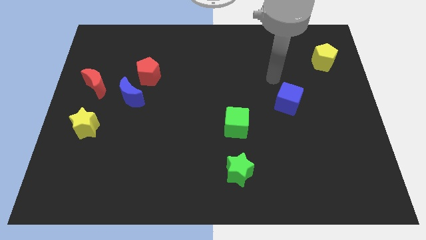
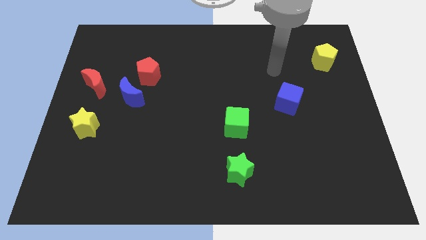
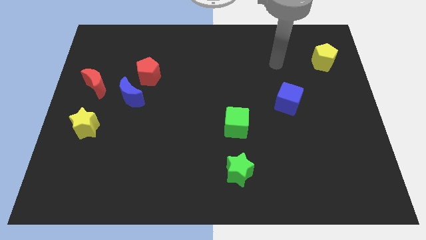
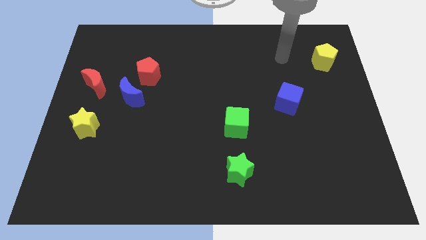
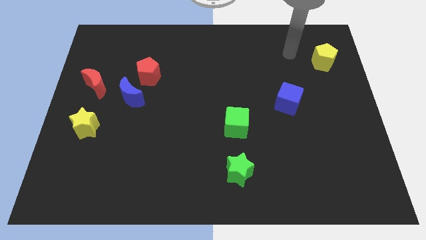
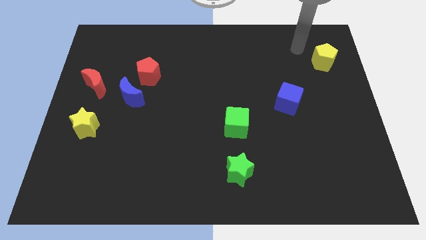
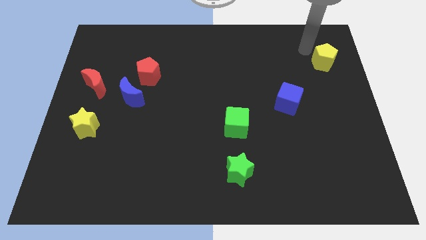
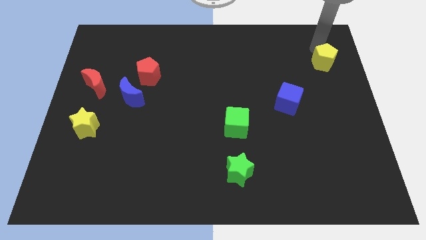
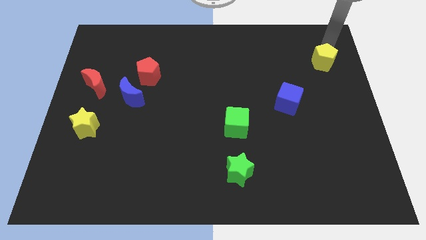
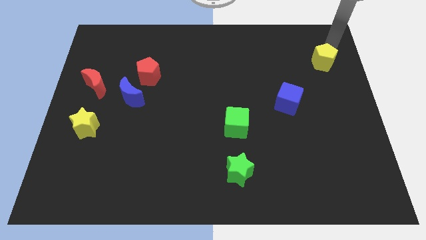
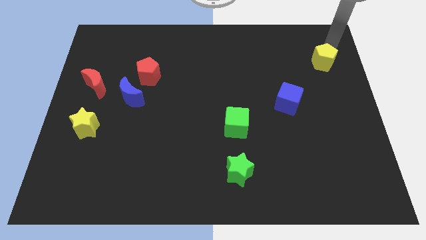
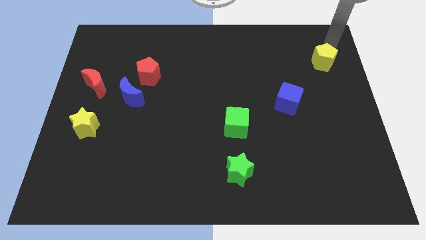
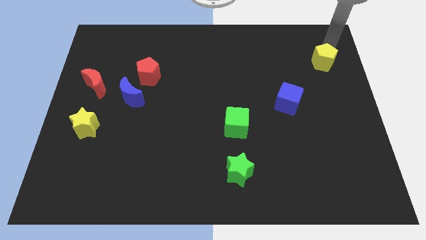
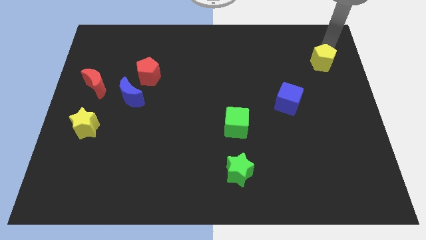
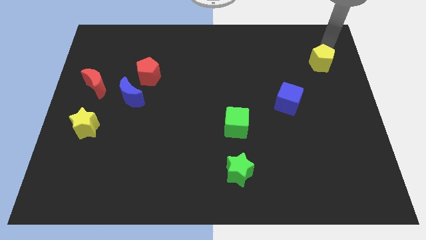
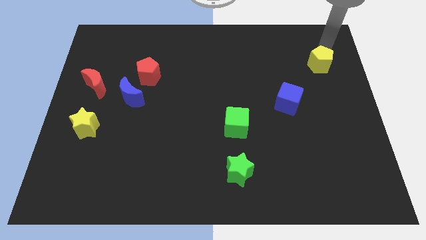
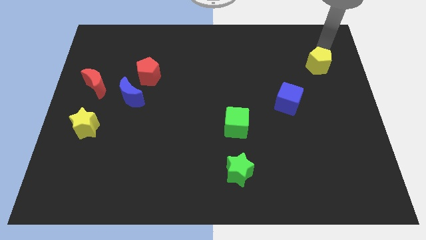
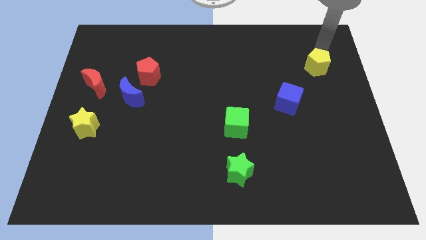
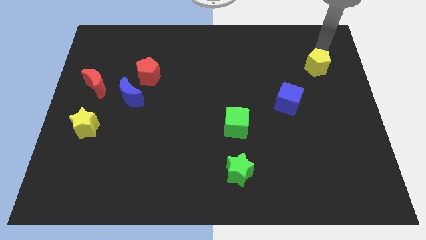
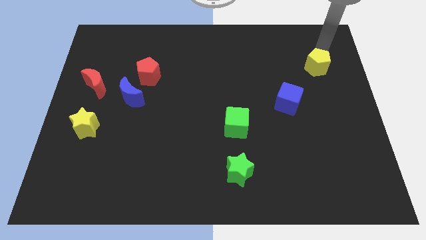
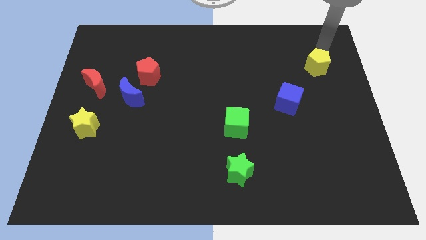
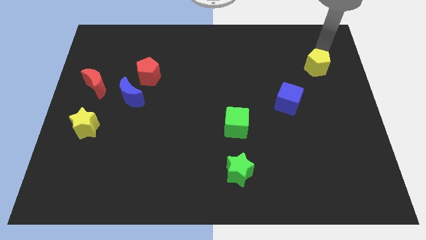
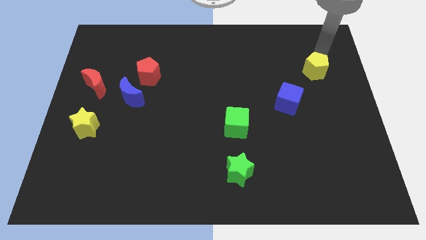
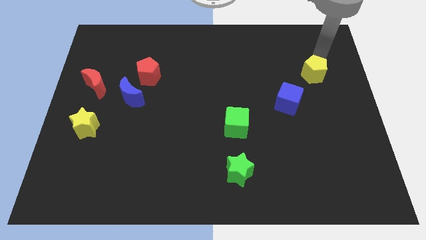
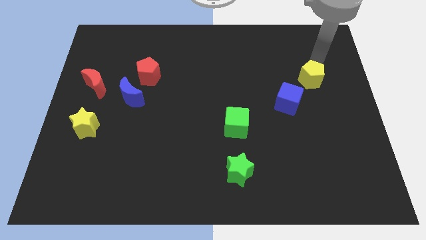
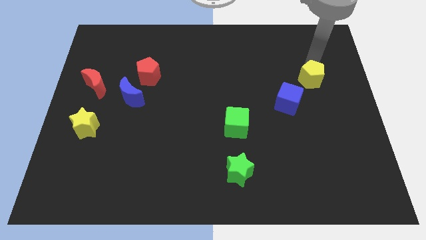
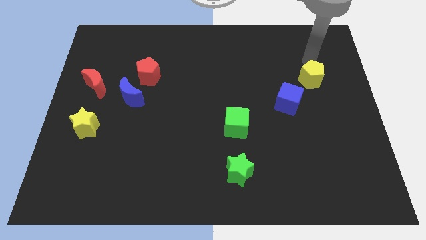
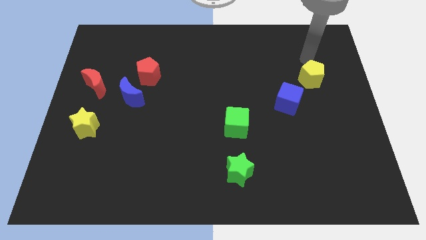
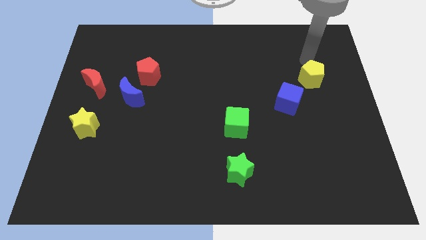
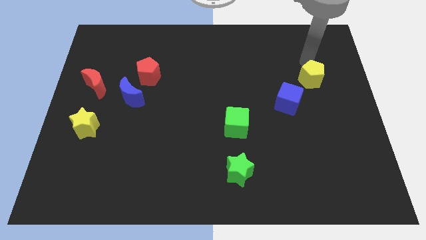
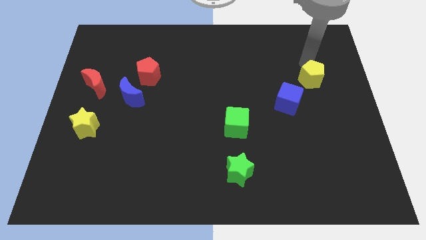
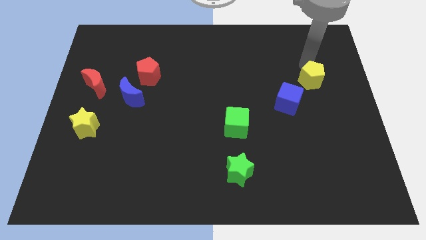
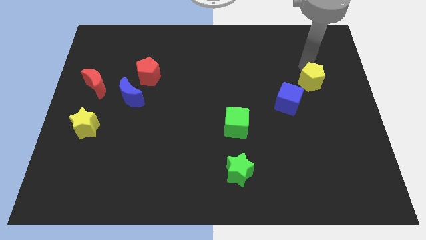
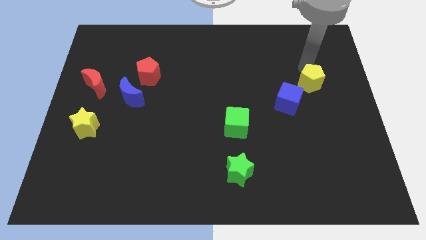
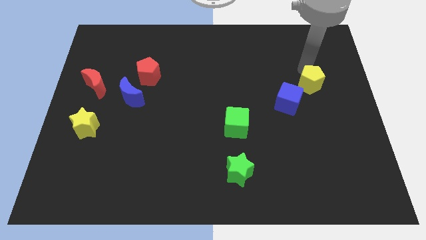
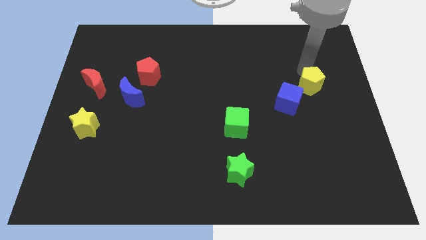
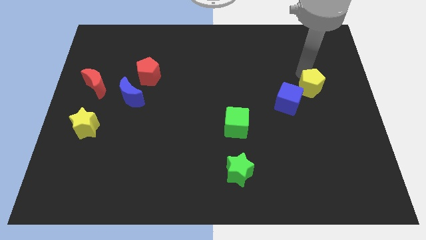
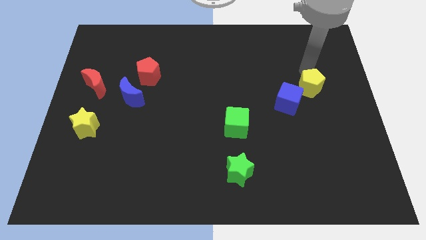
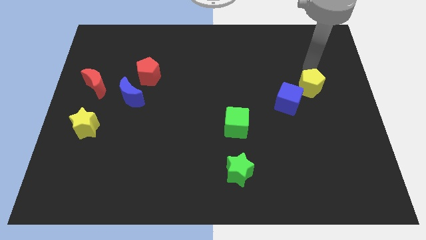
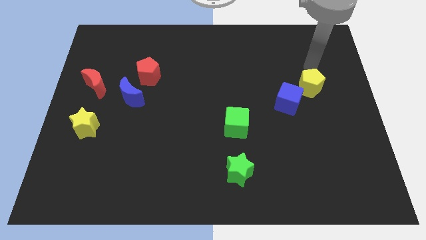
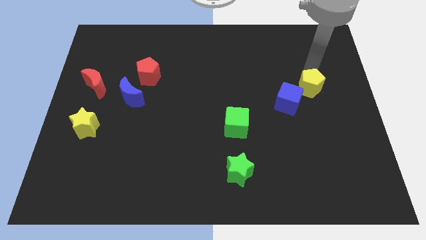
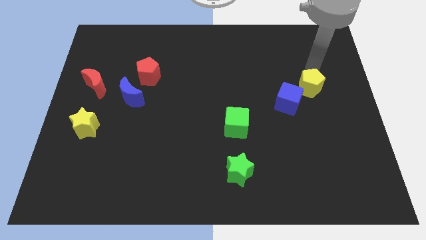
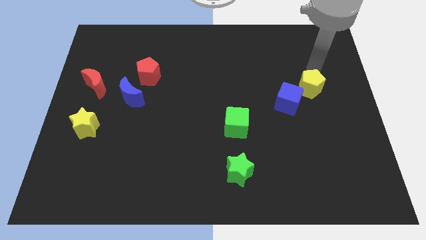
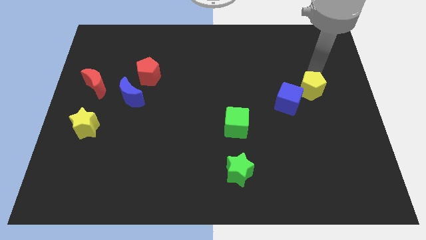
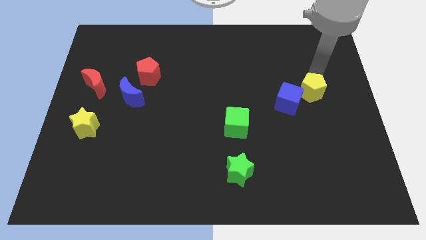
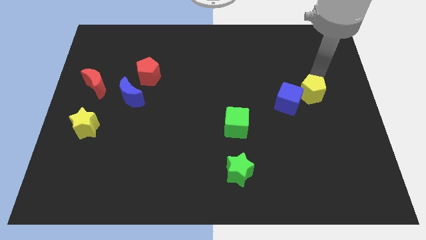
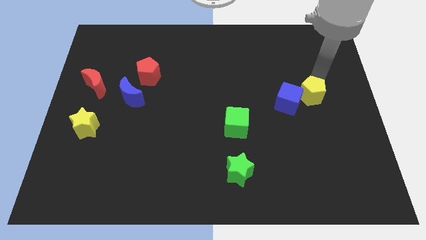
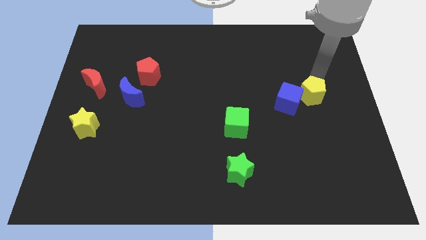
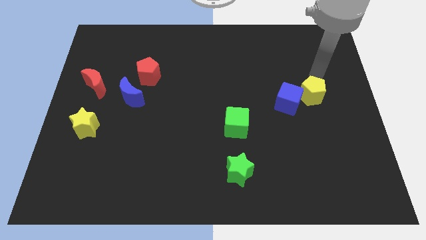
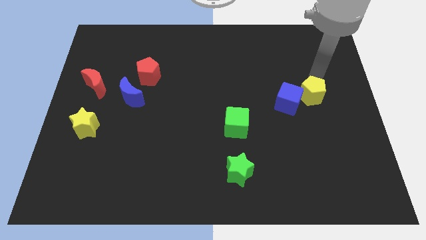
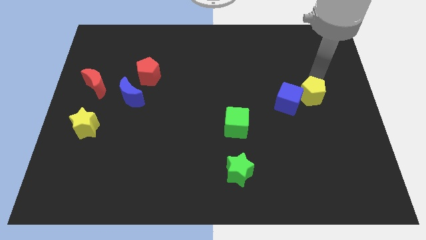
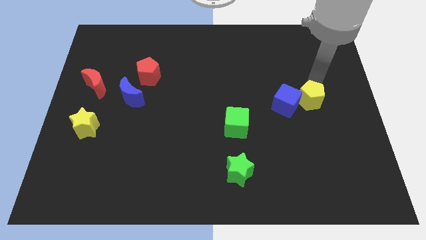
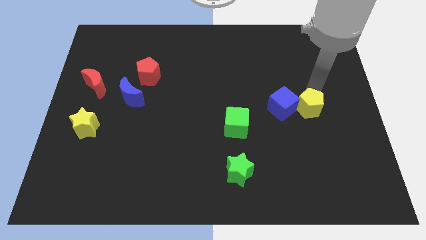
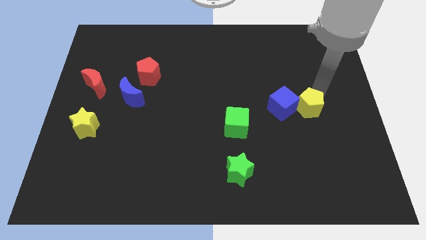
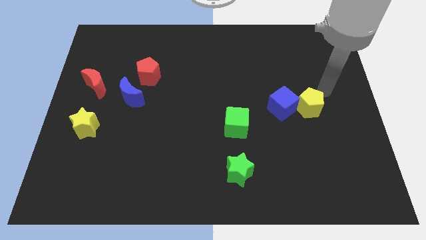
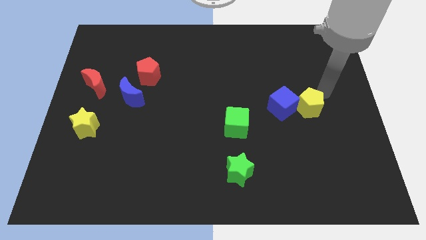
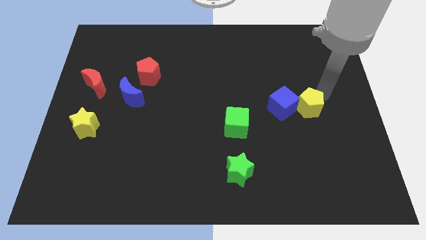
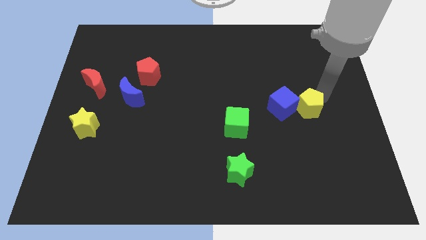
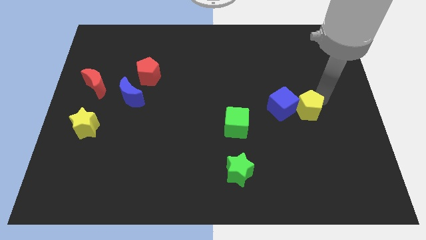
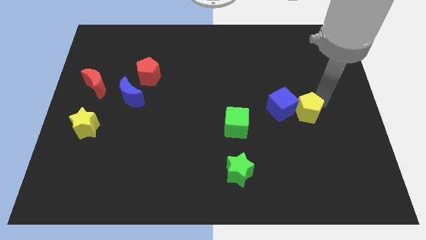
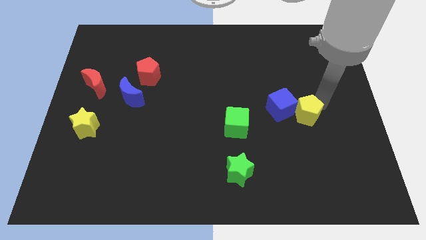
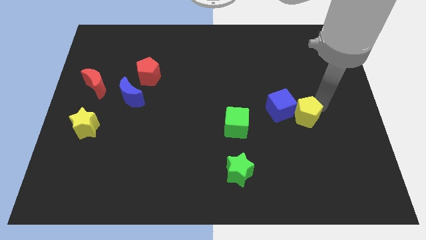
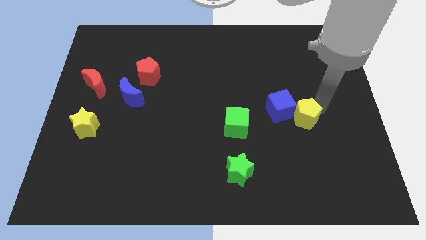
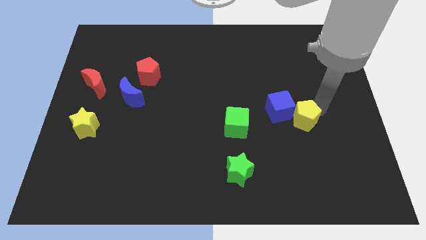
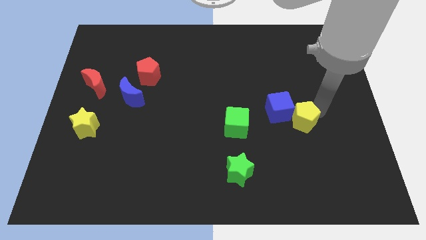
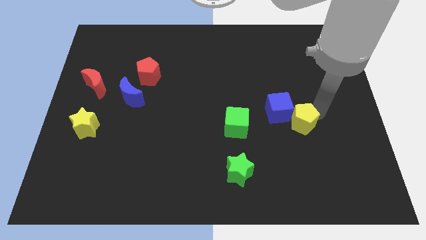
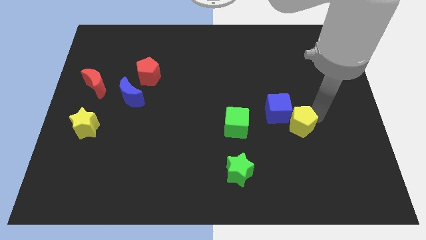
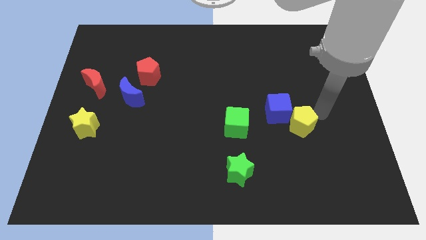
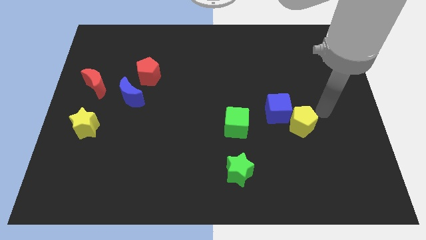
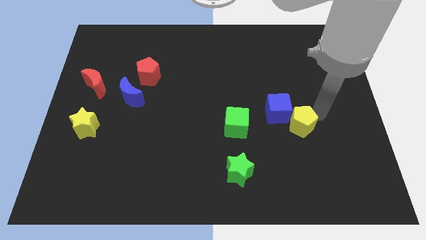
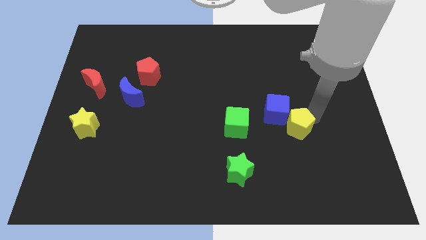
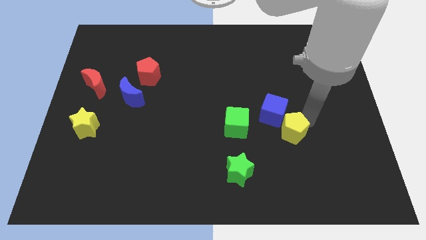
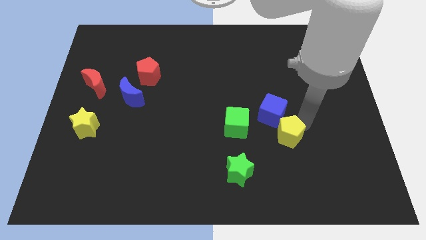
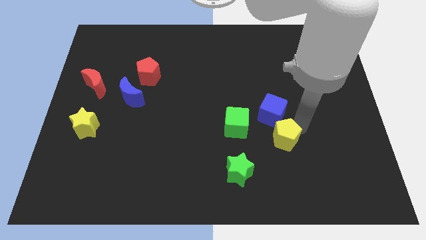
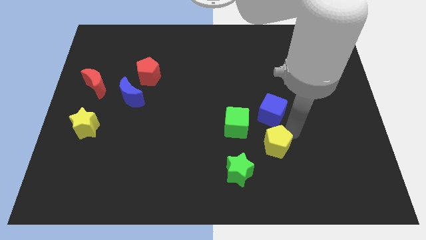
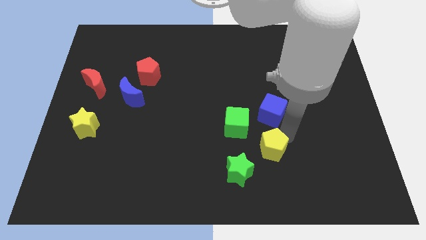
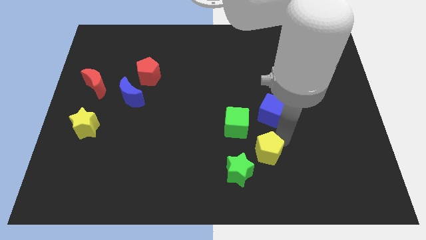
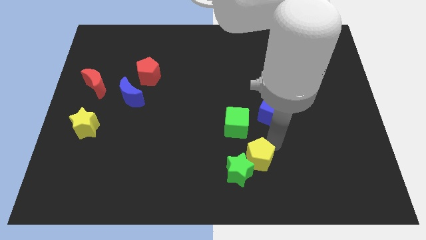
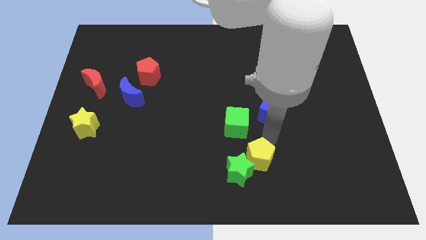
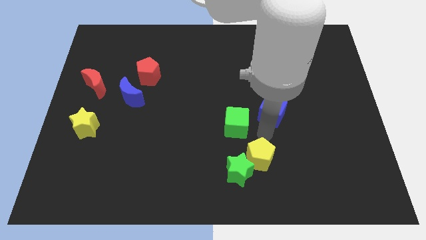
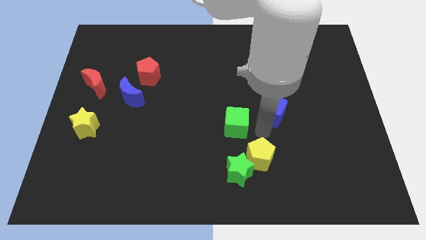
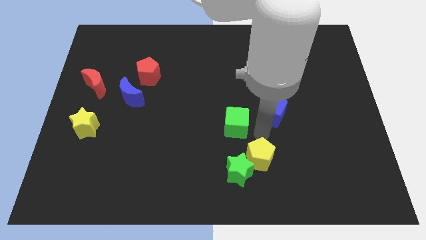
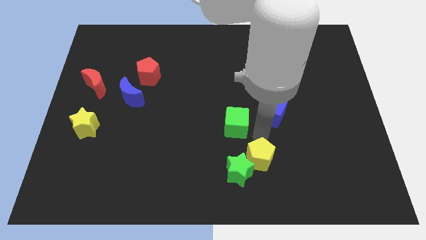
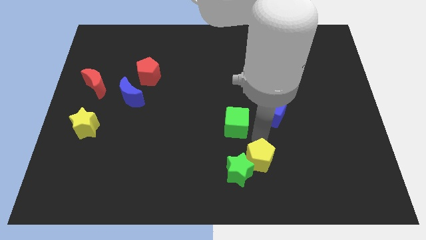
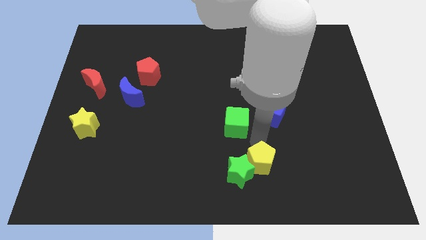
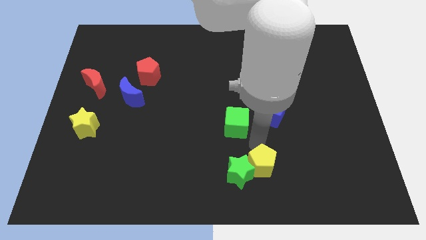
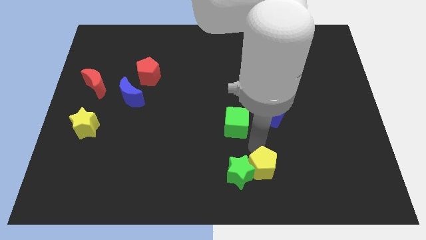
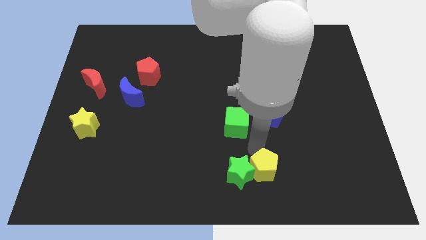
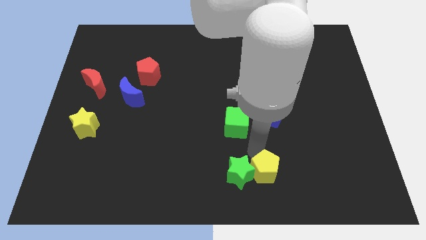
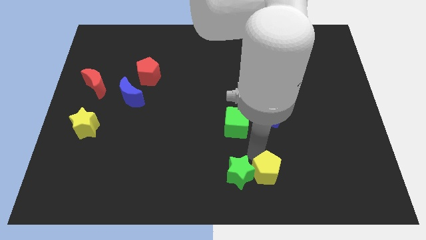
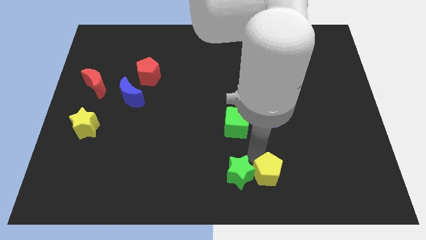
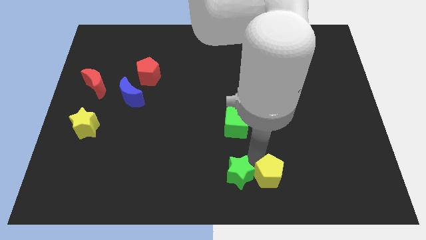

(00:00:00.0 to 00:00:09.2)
push the yellow pentagon to the bottom
